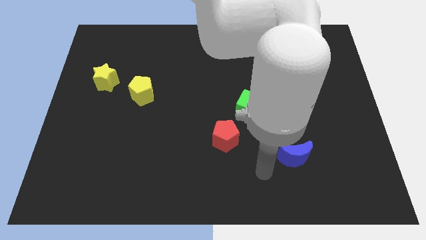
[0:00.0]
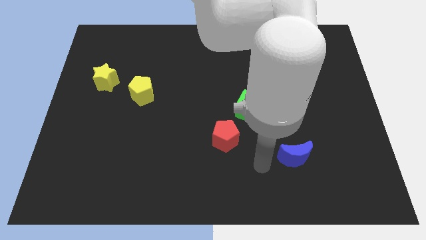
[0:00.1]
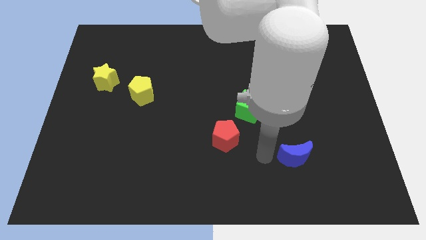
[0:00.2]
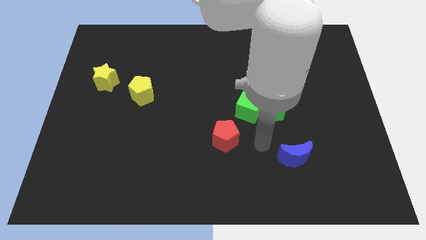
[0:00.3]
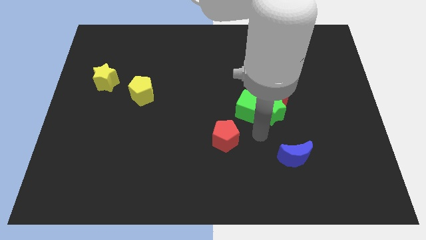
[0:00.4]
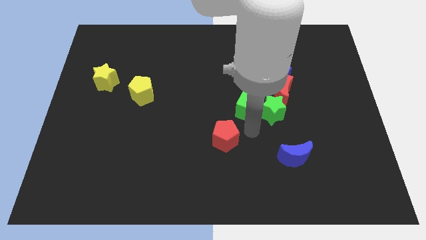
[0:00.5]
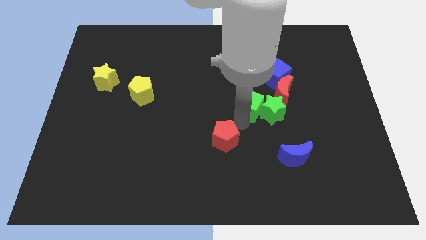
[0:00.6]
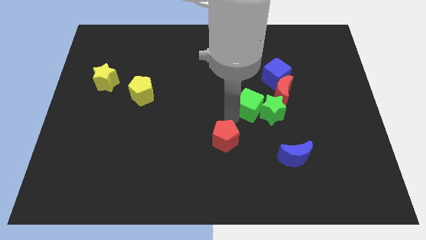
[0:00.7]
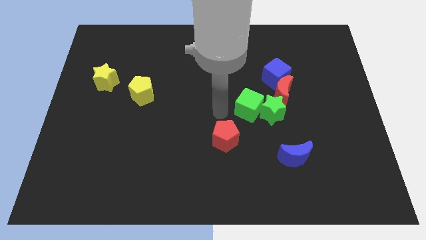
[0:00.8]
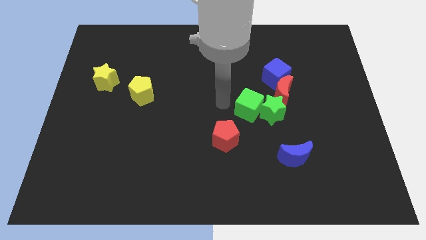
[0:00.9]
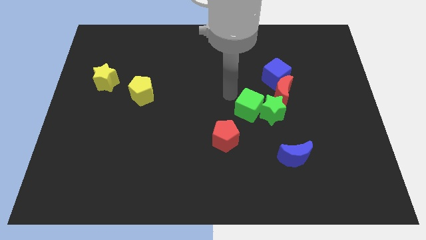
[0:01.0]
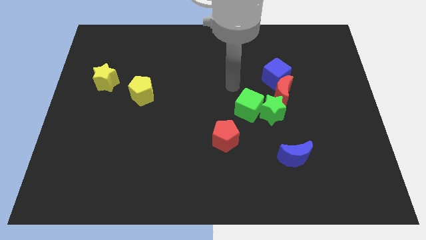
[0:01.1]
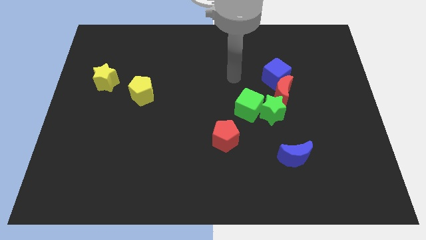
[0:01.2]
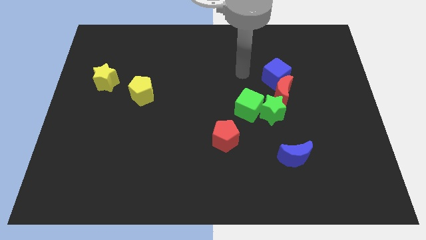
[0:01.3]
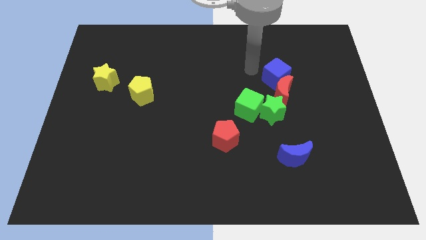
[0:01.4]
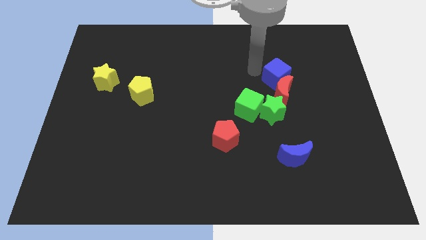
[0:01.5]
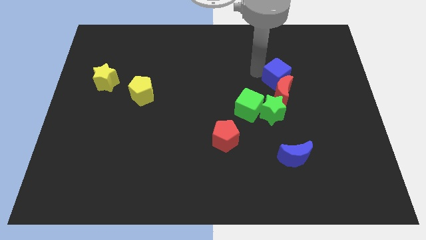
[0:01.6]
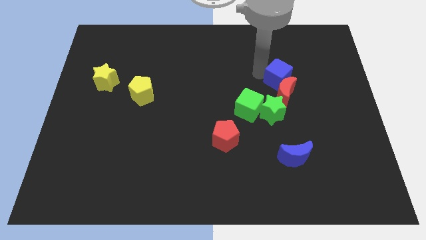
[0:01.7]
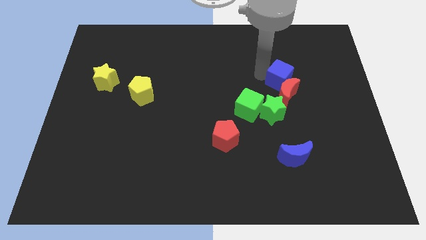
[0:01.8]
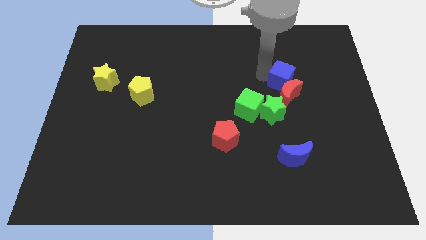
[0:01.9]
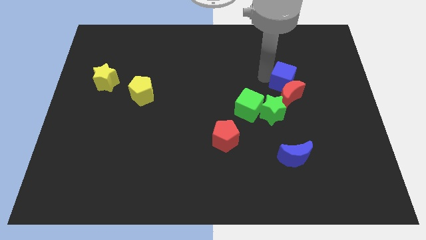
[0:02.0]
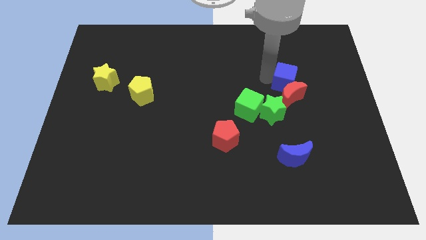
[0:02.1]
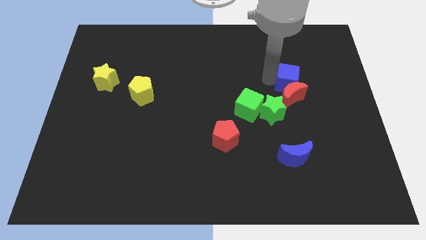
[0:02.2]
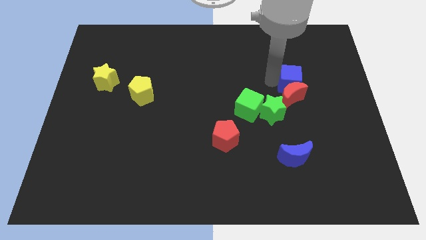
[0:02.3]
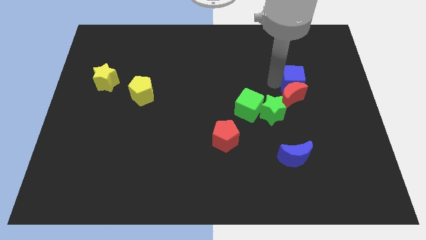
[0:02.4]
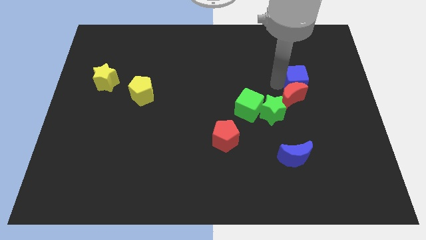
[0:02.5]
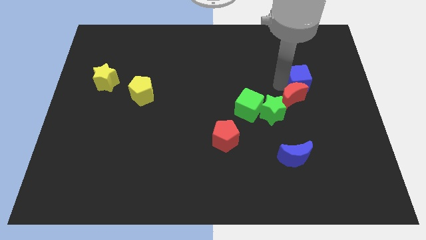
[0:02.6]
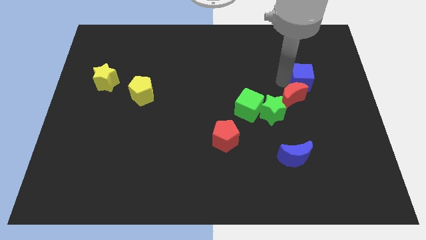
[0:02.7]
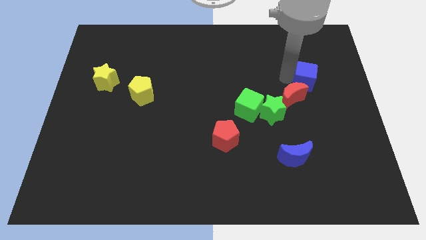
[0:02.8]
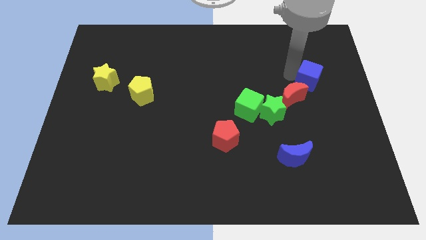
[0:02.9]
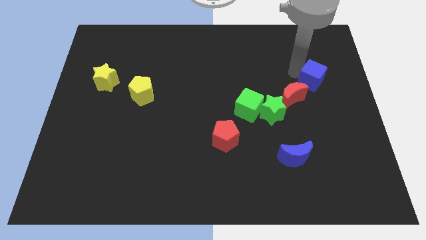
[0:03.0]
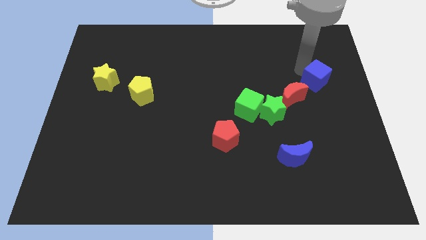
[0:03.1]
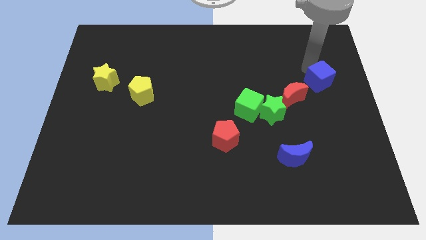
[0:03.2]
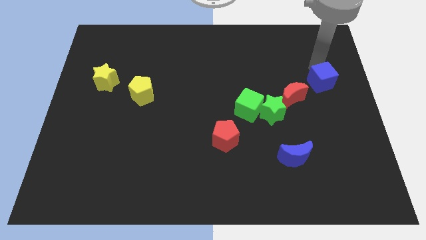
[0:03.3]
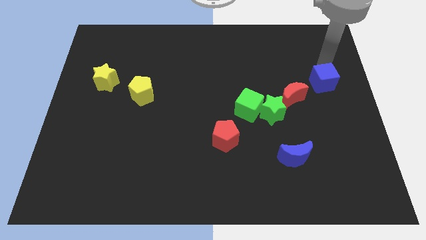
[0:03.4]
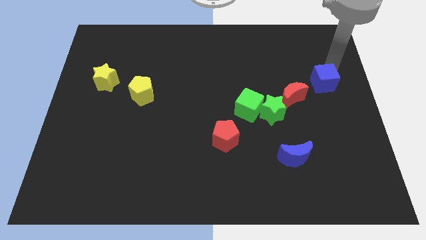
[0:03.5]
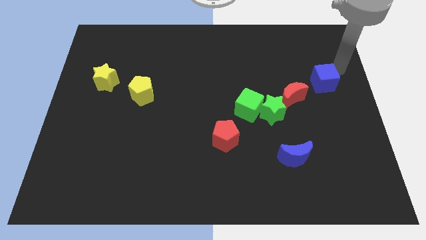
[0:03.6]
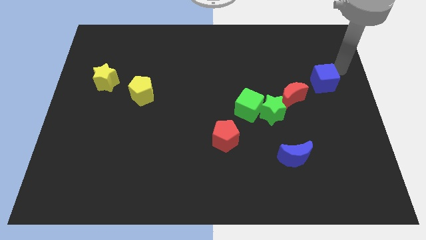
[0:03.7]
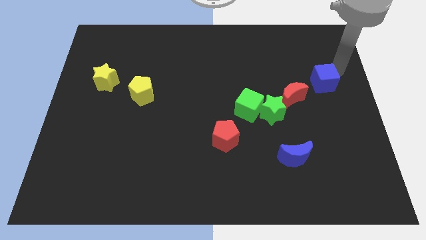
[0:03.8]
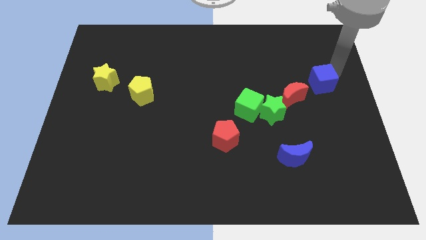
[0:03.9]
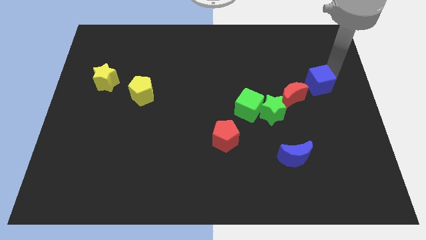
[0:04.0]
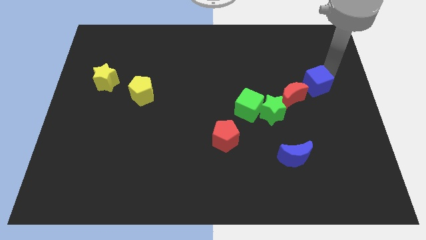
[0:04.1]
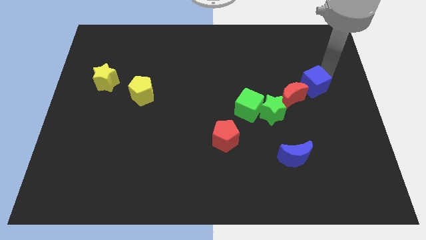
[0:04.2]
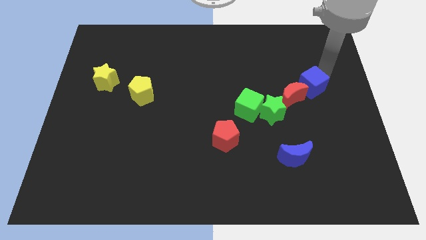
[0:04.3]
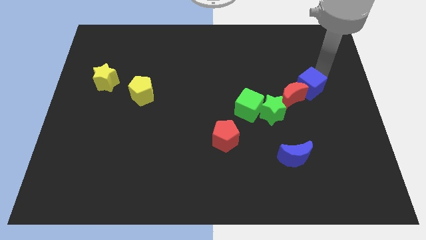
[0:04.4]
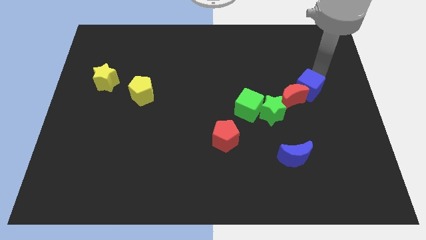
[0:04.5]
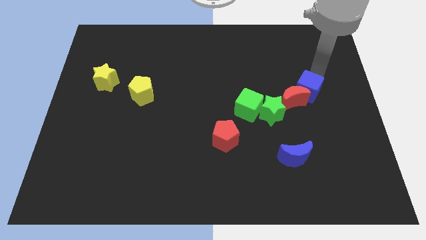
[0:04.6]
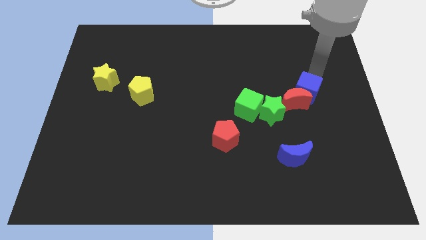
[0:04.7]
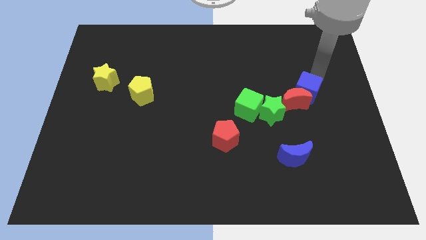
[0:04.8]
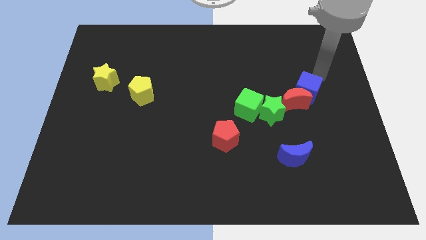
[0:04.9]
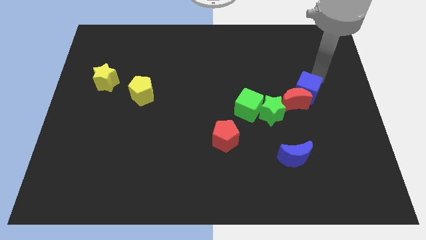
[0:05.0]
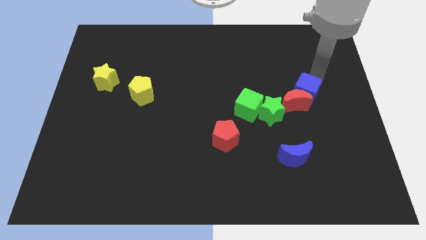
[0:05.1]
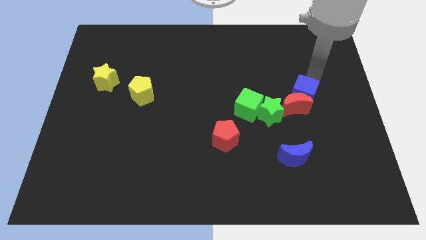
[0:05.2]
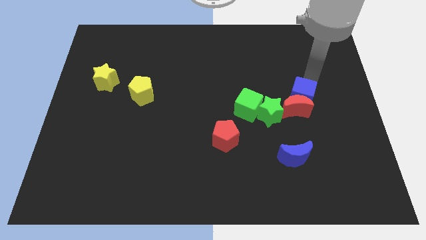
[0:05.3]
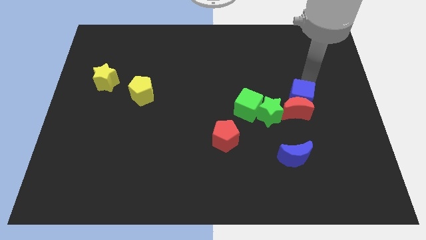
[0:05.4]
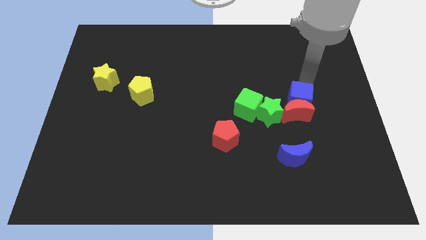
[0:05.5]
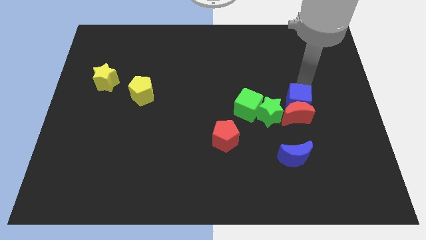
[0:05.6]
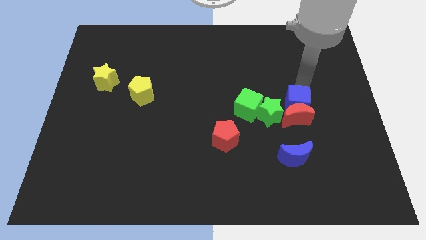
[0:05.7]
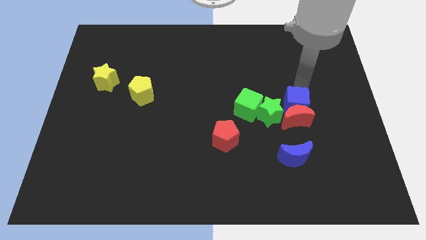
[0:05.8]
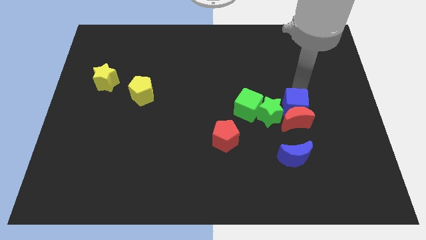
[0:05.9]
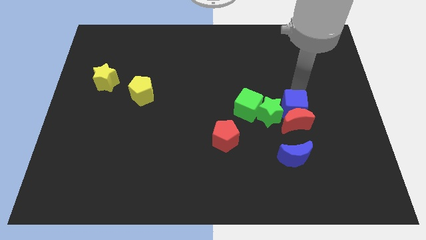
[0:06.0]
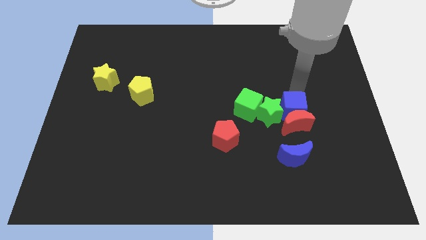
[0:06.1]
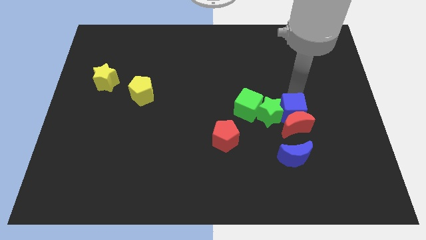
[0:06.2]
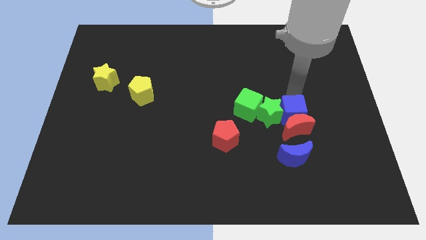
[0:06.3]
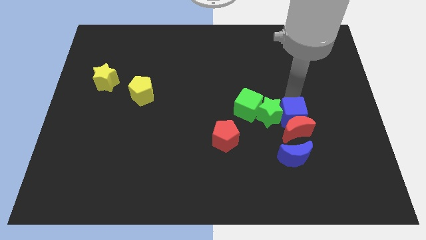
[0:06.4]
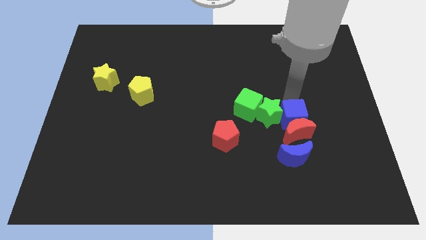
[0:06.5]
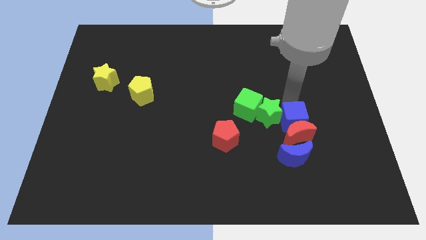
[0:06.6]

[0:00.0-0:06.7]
move the blue cube to the bottom right side of the green cube

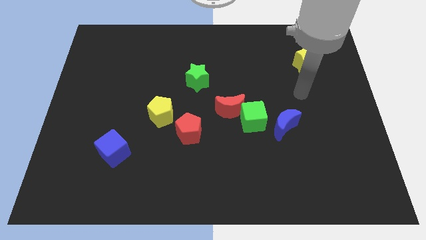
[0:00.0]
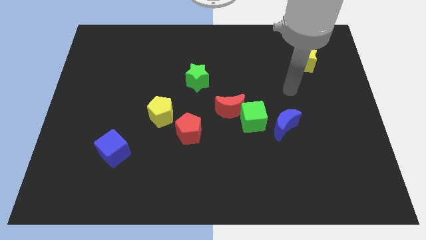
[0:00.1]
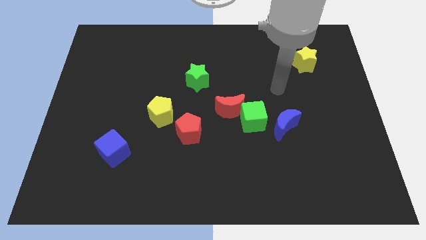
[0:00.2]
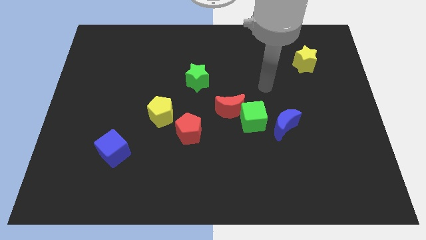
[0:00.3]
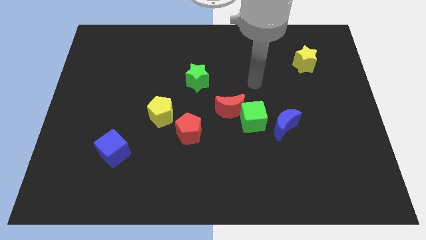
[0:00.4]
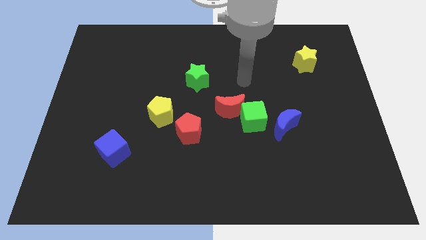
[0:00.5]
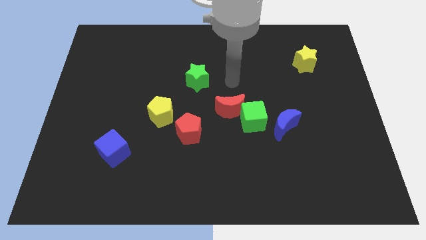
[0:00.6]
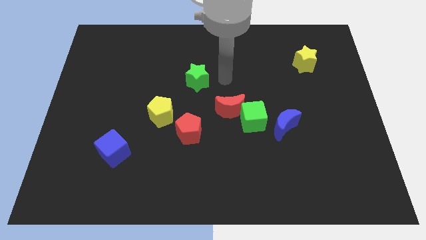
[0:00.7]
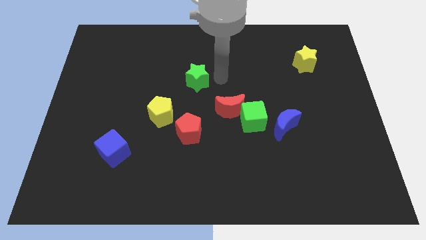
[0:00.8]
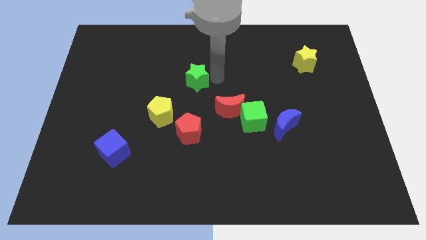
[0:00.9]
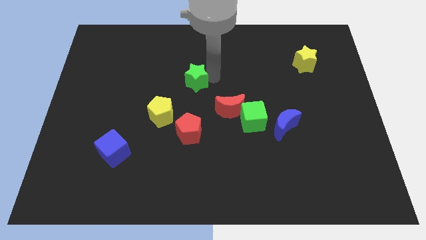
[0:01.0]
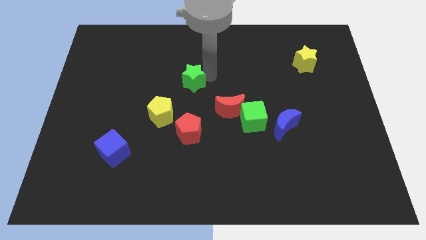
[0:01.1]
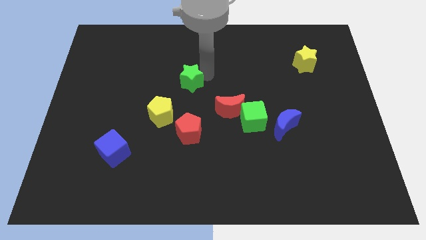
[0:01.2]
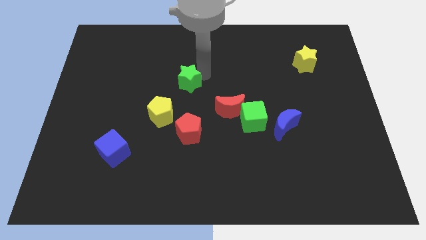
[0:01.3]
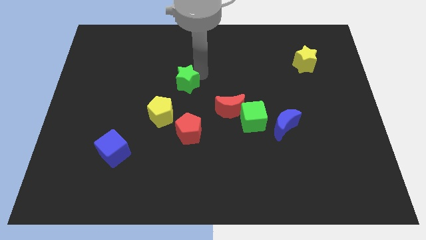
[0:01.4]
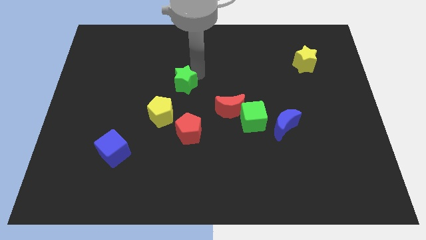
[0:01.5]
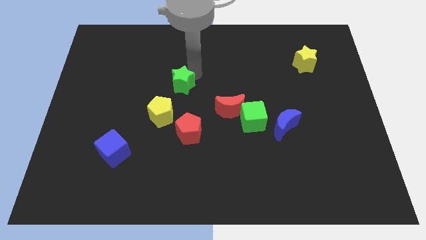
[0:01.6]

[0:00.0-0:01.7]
push the green star to the top side of the yellow pentagon
